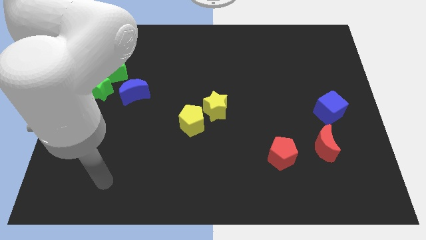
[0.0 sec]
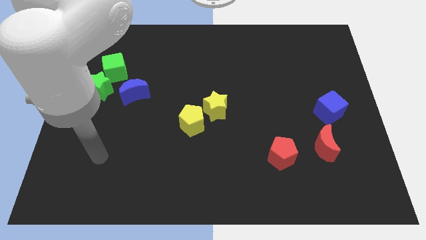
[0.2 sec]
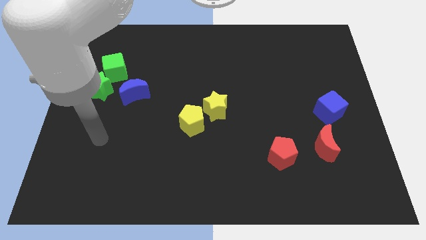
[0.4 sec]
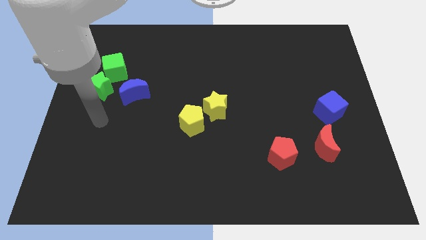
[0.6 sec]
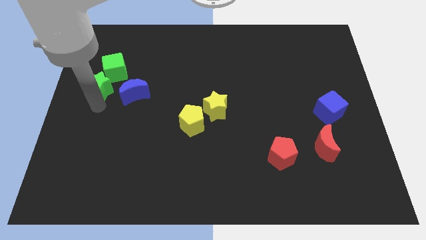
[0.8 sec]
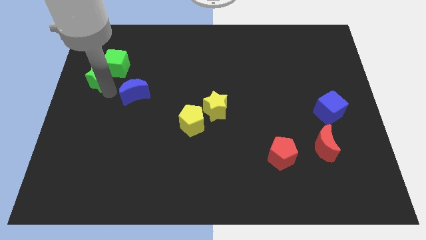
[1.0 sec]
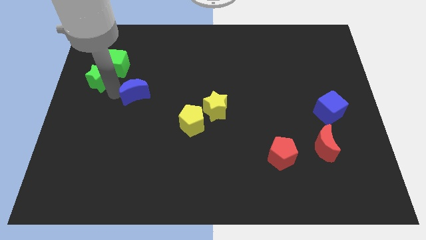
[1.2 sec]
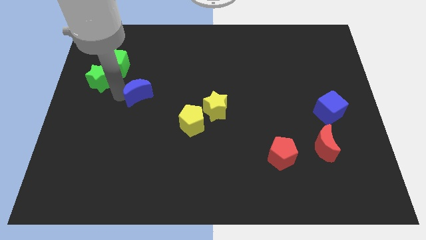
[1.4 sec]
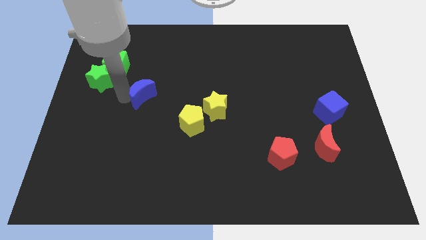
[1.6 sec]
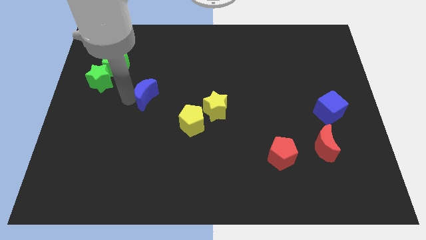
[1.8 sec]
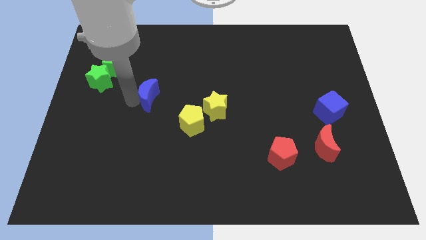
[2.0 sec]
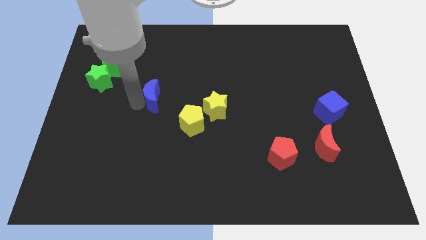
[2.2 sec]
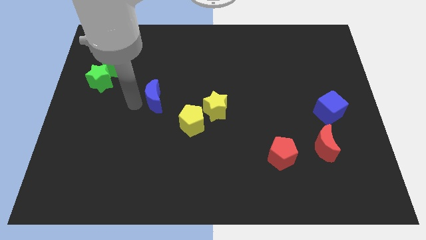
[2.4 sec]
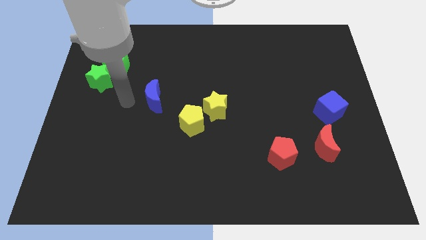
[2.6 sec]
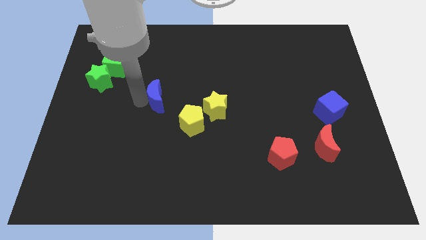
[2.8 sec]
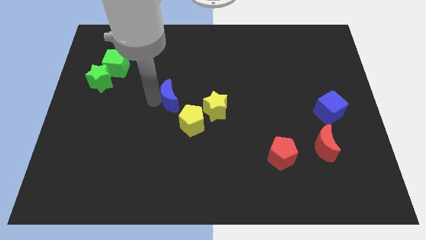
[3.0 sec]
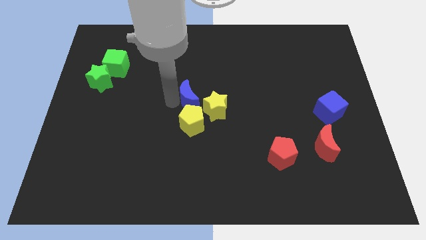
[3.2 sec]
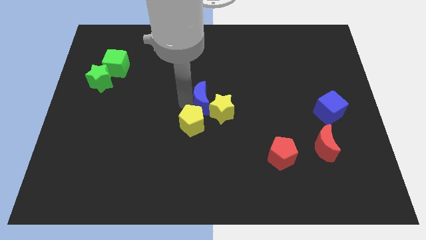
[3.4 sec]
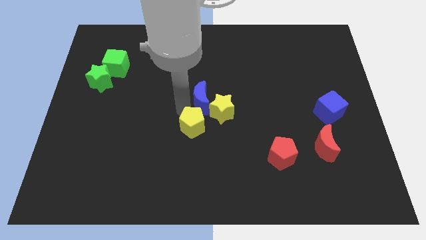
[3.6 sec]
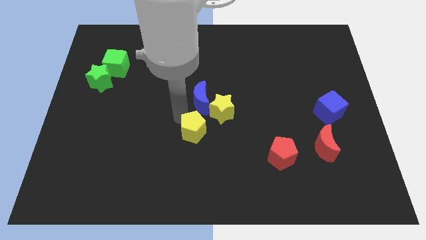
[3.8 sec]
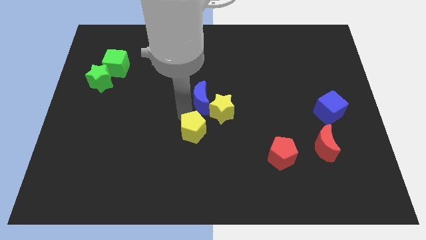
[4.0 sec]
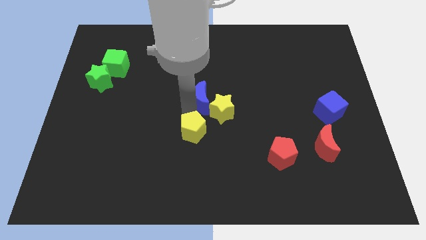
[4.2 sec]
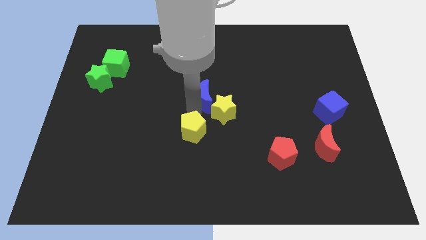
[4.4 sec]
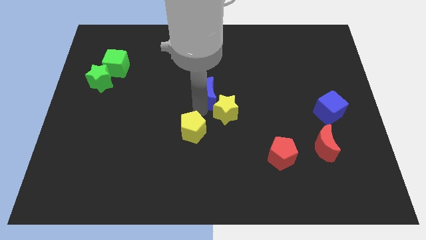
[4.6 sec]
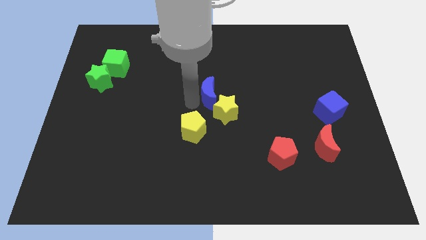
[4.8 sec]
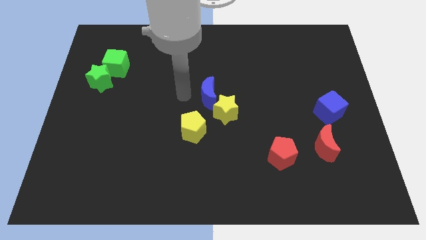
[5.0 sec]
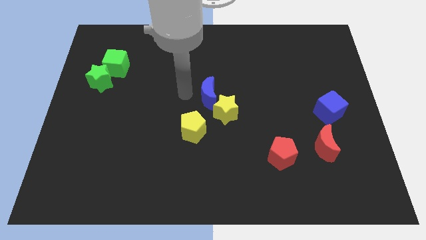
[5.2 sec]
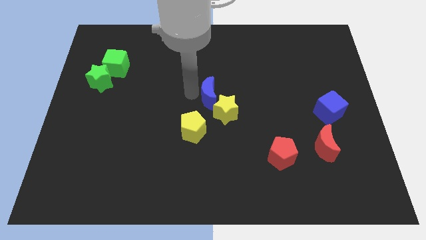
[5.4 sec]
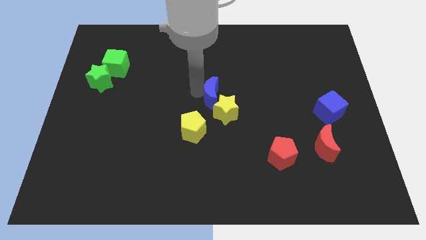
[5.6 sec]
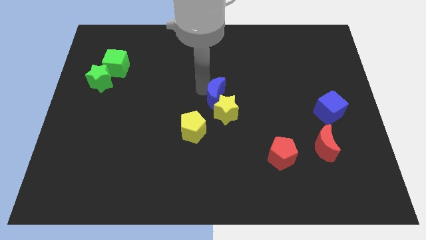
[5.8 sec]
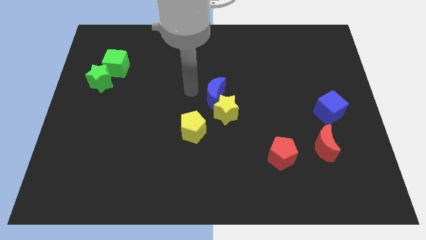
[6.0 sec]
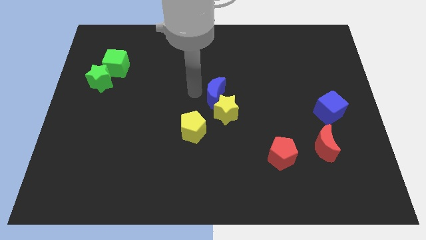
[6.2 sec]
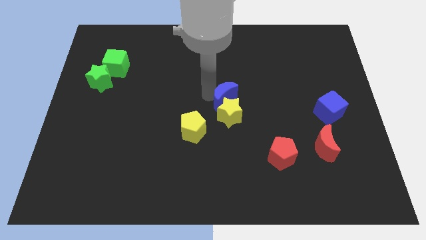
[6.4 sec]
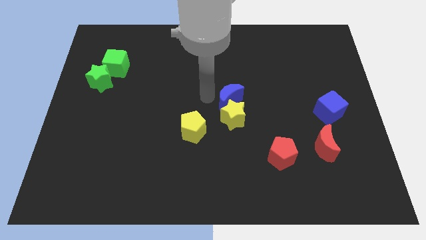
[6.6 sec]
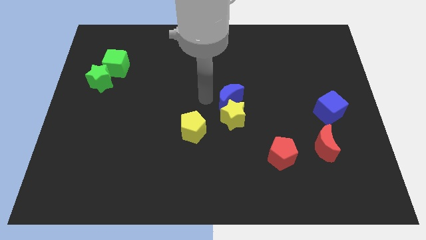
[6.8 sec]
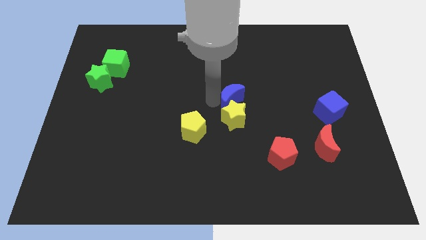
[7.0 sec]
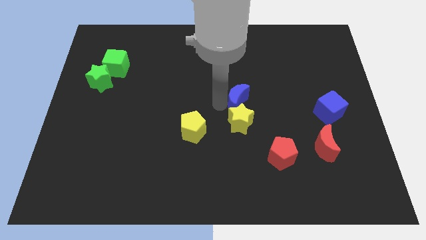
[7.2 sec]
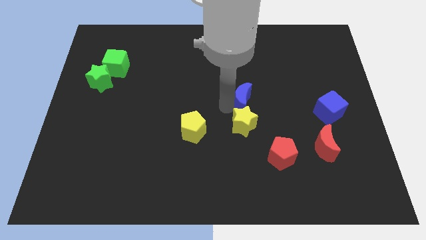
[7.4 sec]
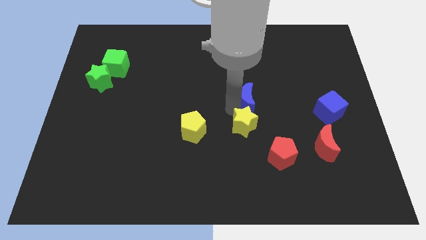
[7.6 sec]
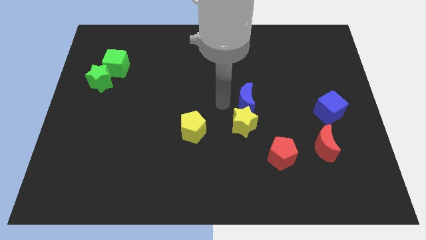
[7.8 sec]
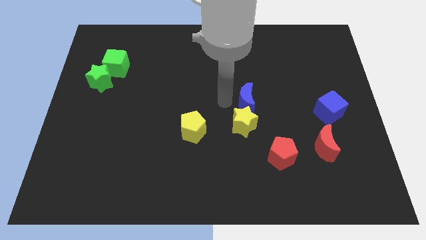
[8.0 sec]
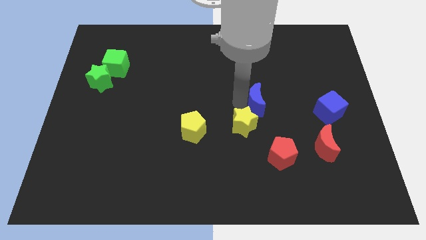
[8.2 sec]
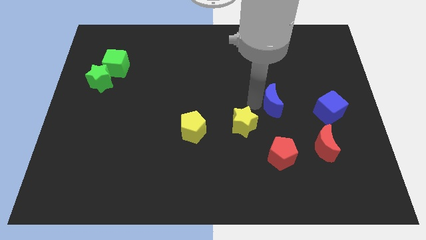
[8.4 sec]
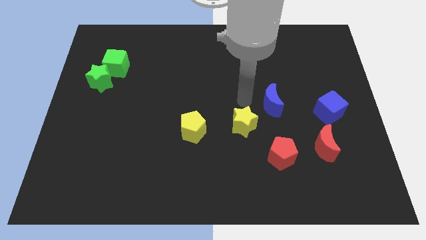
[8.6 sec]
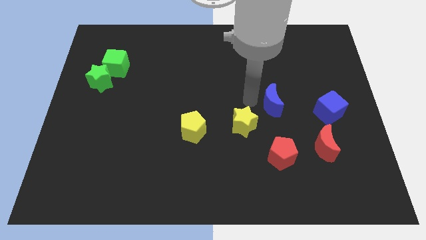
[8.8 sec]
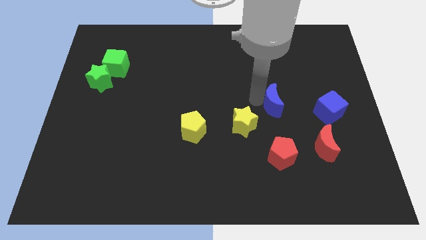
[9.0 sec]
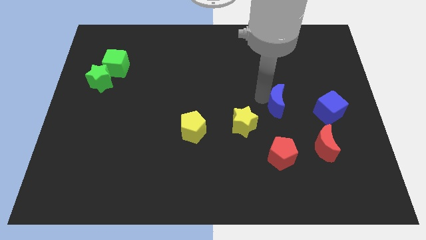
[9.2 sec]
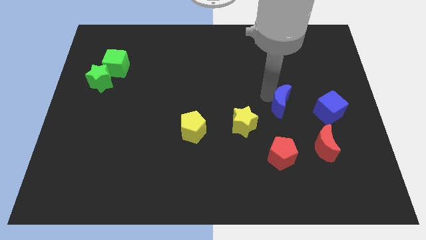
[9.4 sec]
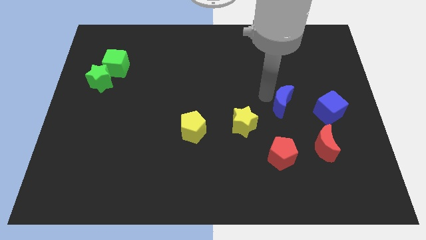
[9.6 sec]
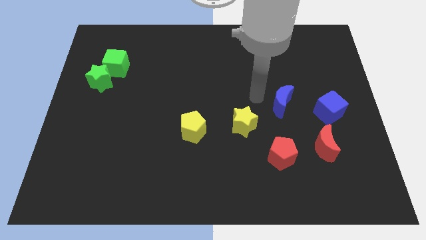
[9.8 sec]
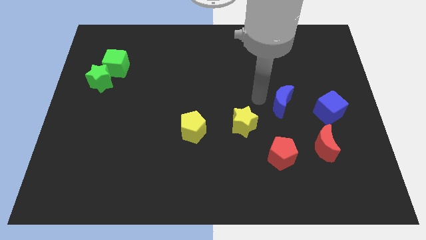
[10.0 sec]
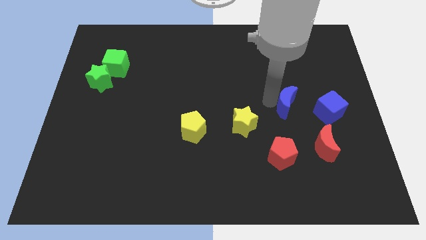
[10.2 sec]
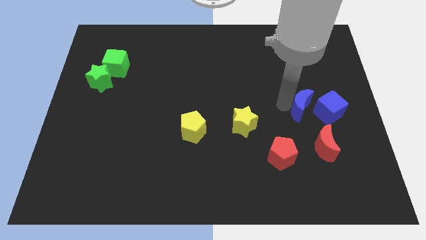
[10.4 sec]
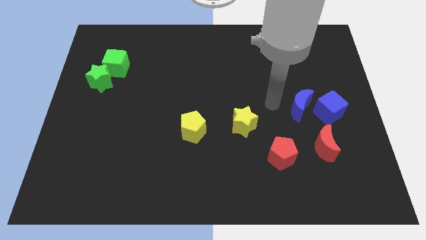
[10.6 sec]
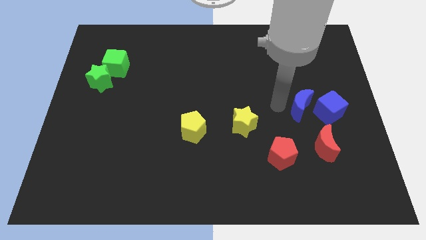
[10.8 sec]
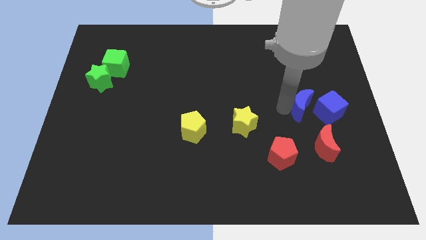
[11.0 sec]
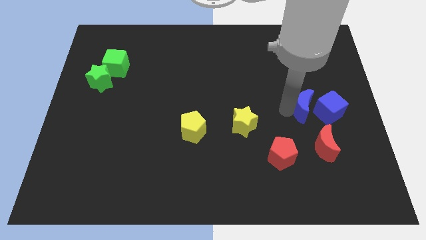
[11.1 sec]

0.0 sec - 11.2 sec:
push the blue moon to the blue cube

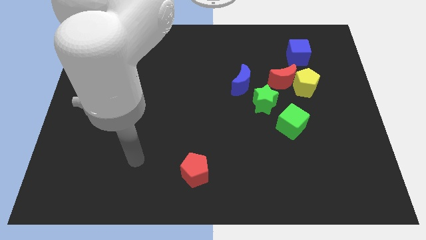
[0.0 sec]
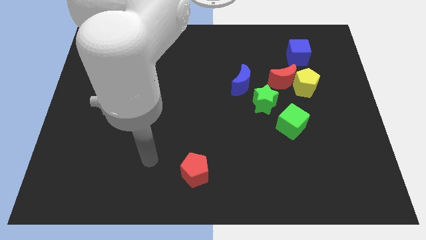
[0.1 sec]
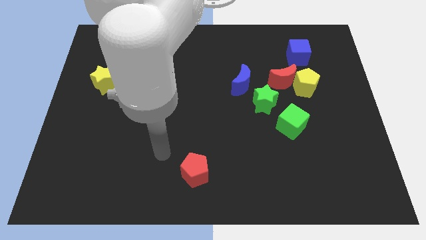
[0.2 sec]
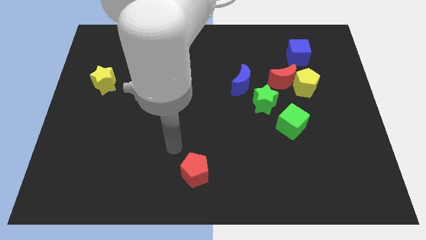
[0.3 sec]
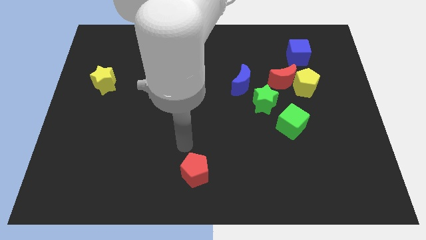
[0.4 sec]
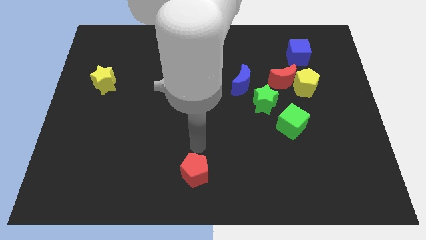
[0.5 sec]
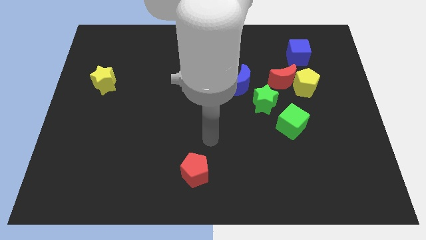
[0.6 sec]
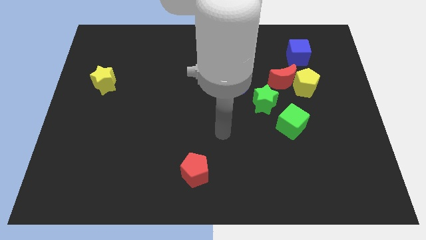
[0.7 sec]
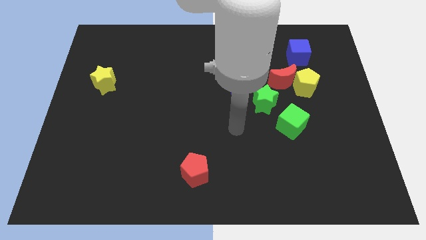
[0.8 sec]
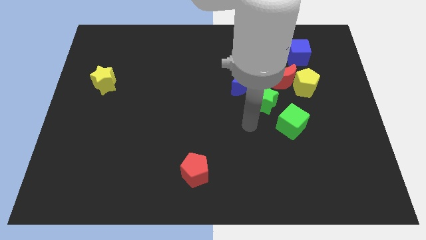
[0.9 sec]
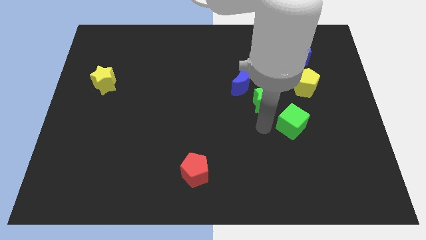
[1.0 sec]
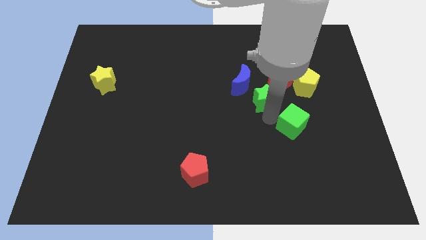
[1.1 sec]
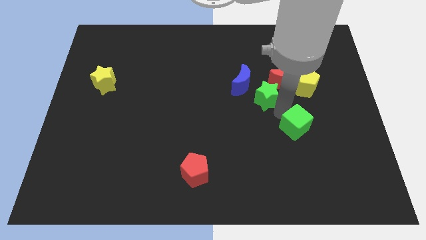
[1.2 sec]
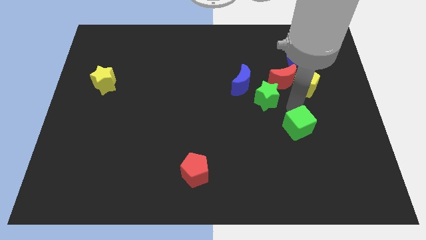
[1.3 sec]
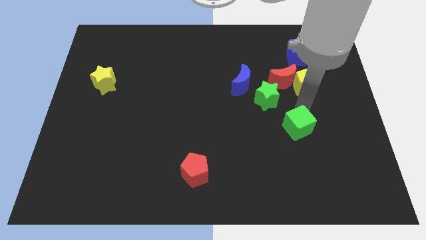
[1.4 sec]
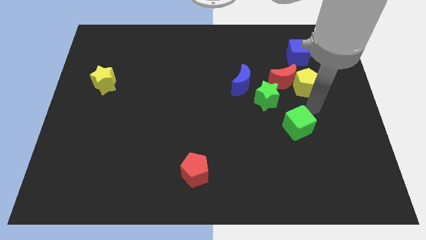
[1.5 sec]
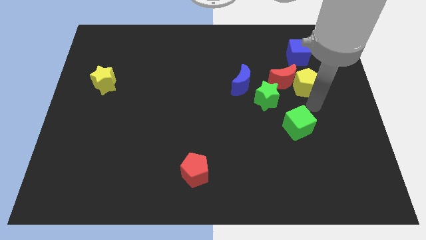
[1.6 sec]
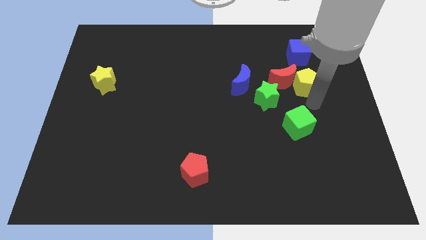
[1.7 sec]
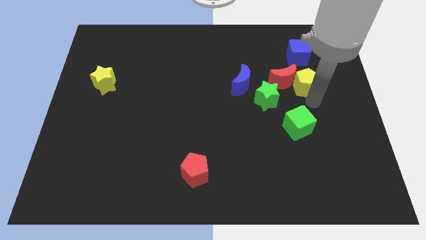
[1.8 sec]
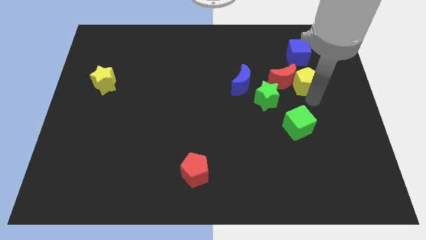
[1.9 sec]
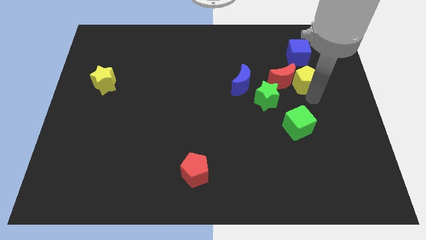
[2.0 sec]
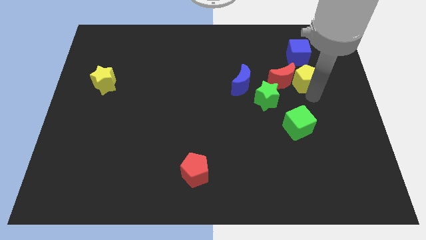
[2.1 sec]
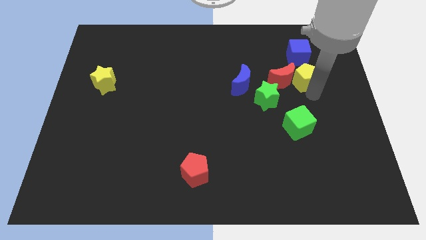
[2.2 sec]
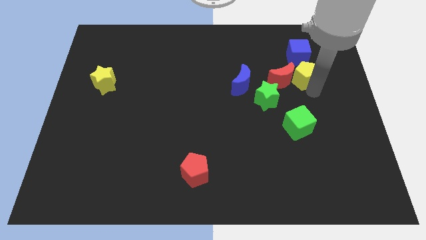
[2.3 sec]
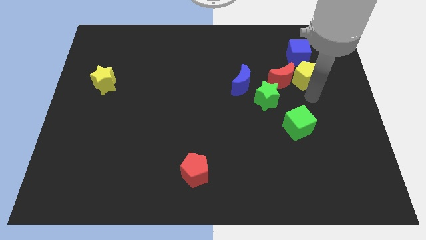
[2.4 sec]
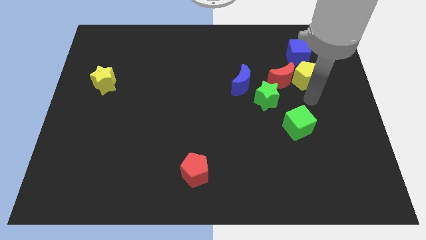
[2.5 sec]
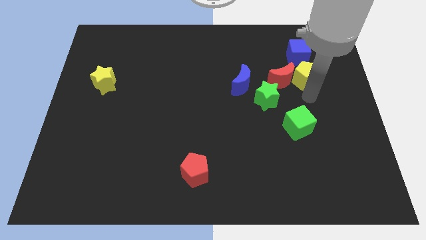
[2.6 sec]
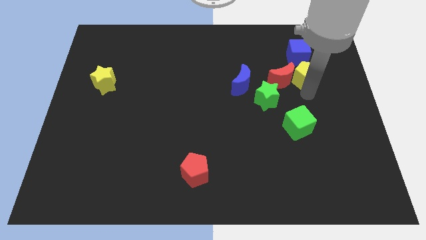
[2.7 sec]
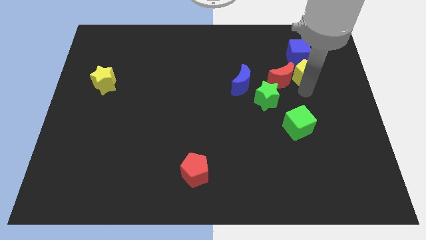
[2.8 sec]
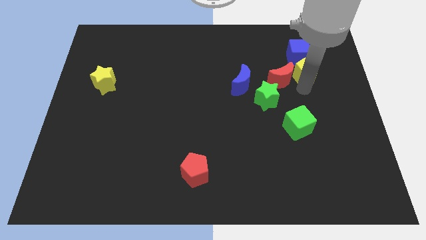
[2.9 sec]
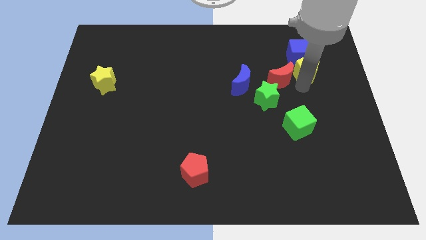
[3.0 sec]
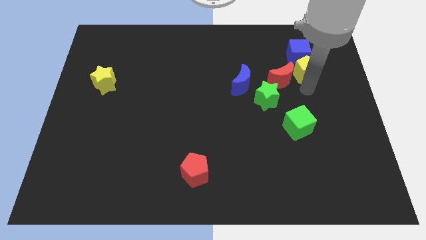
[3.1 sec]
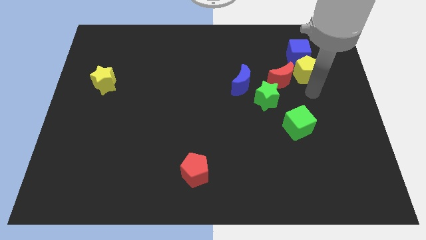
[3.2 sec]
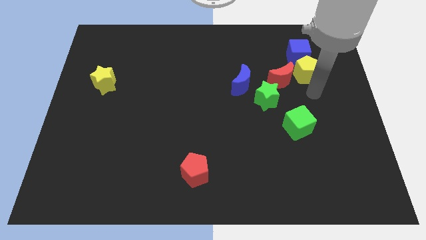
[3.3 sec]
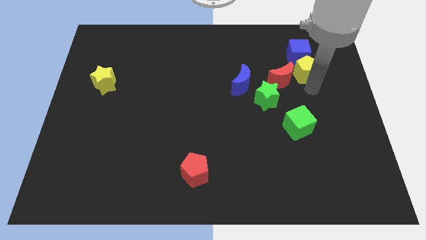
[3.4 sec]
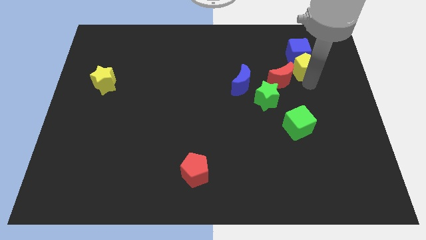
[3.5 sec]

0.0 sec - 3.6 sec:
move the yellow pentagon next to the blue cube
